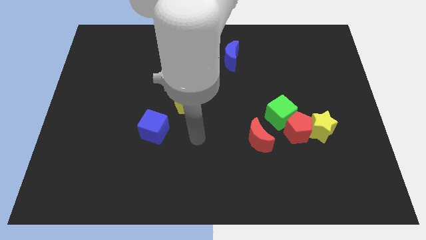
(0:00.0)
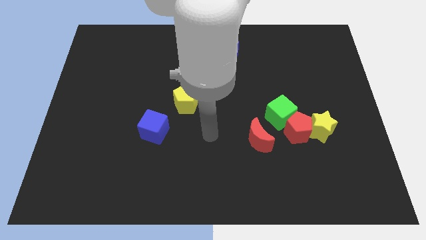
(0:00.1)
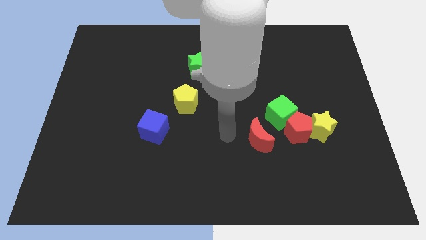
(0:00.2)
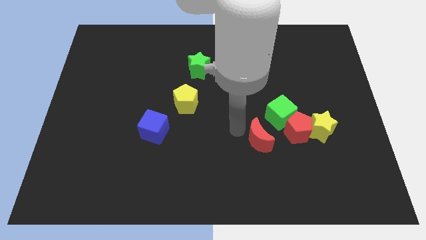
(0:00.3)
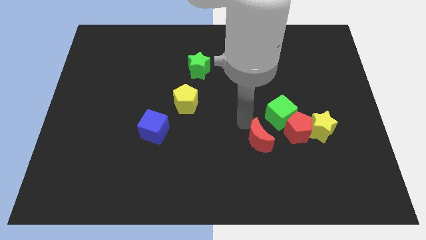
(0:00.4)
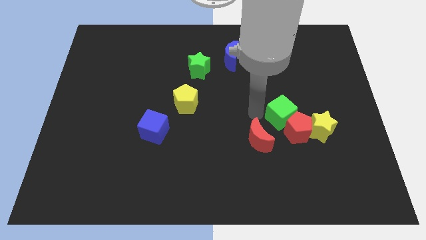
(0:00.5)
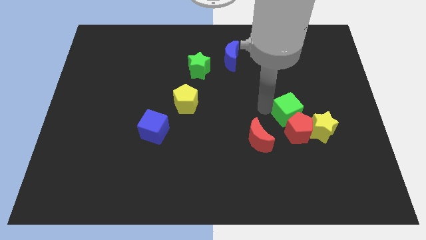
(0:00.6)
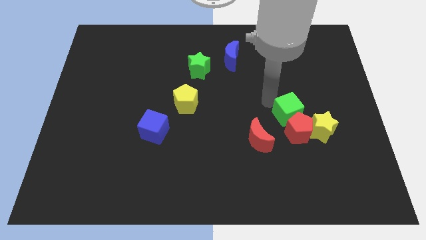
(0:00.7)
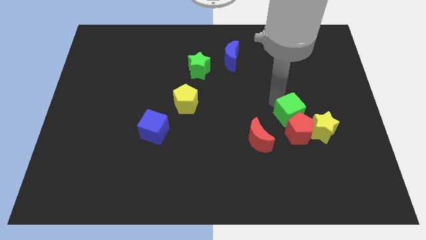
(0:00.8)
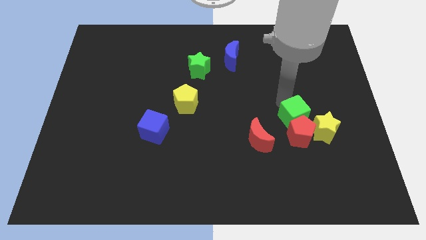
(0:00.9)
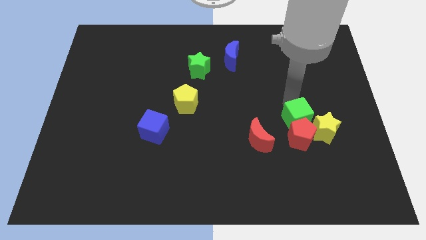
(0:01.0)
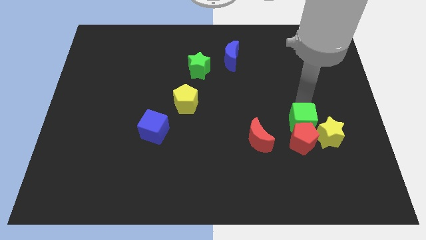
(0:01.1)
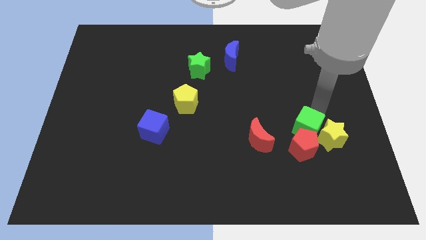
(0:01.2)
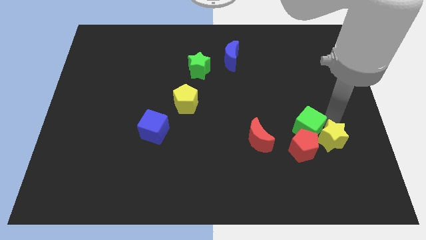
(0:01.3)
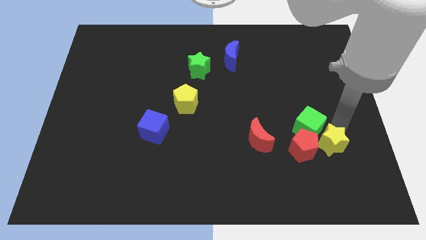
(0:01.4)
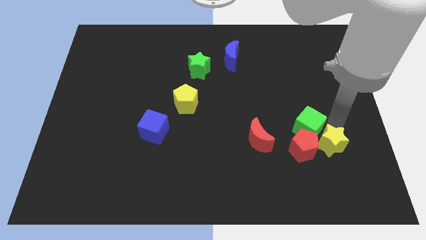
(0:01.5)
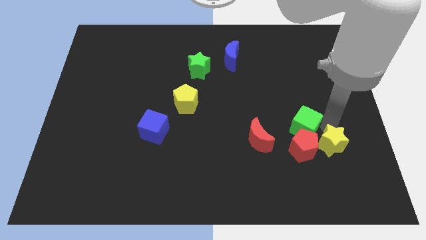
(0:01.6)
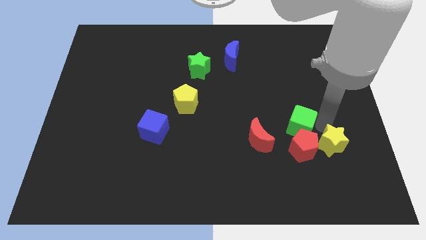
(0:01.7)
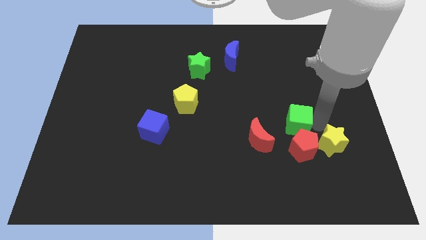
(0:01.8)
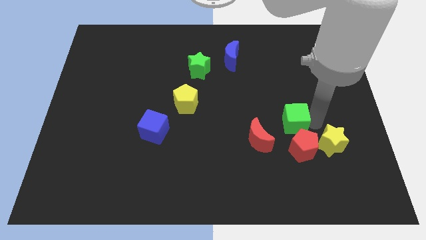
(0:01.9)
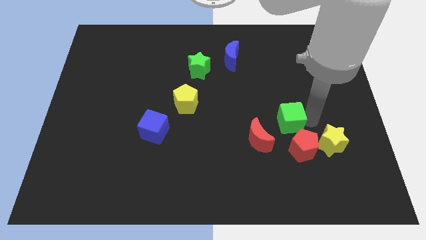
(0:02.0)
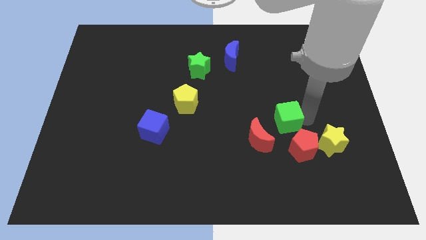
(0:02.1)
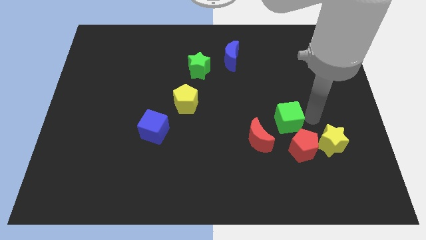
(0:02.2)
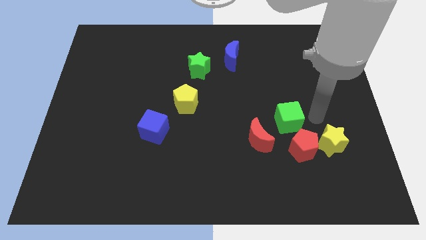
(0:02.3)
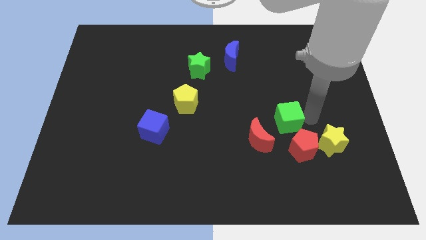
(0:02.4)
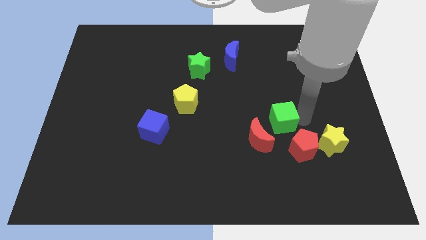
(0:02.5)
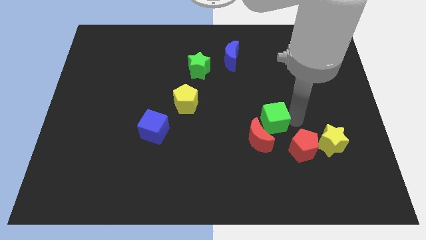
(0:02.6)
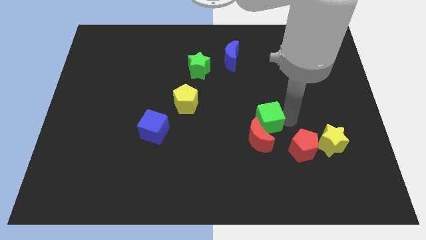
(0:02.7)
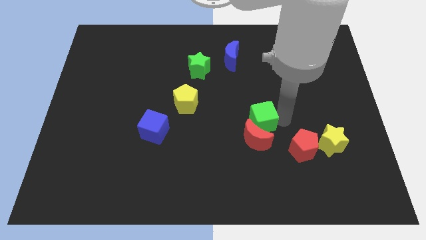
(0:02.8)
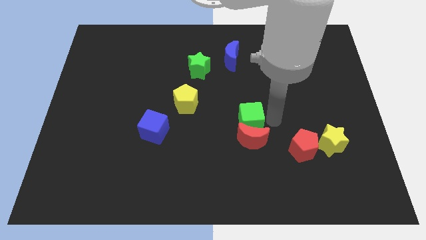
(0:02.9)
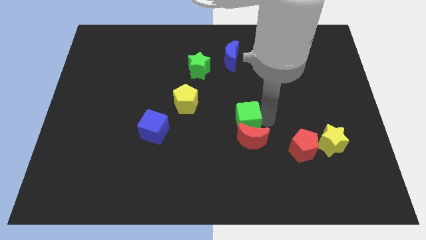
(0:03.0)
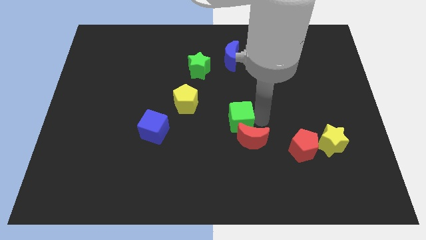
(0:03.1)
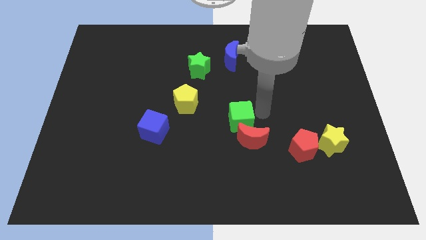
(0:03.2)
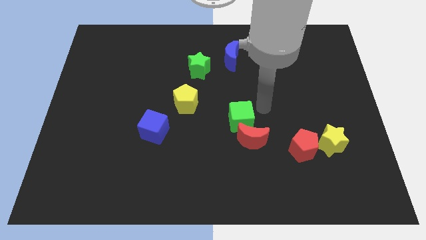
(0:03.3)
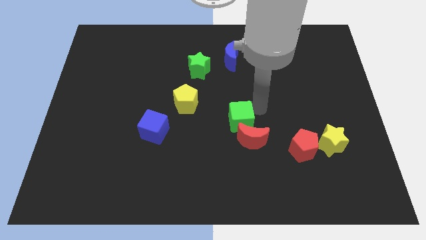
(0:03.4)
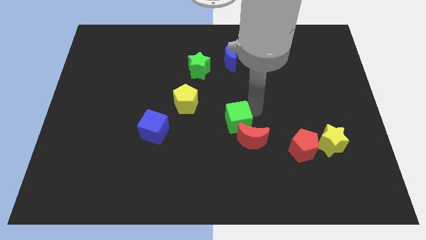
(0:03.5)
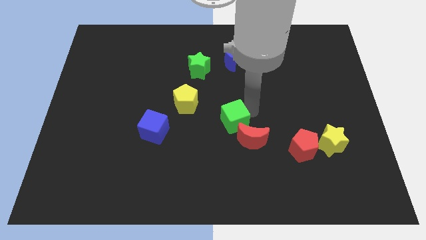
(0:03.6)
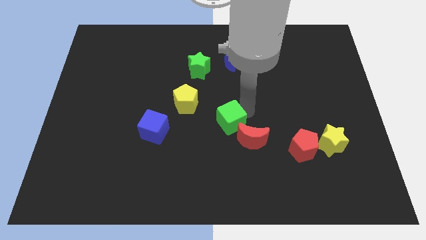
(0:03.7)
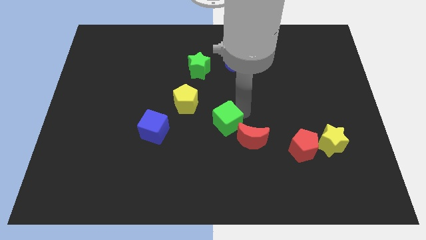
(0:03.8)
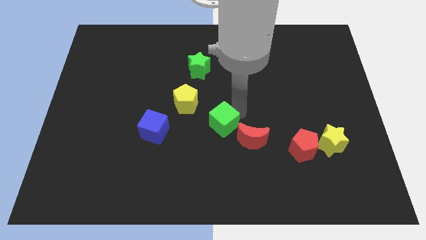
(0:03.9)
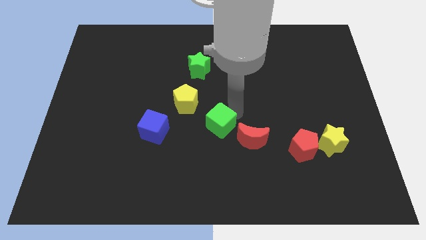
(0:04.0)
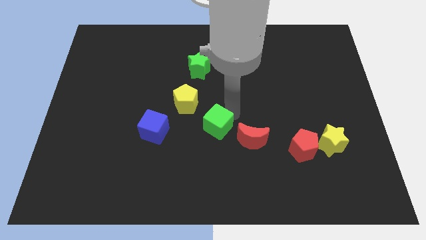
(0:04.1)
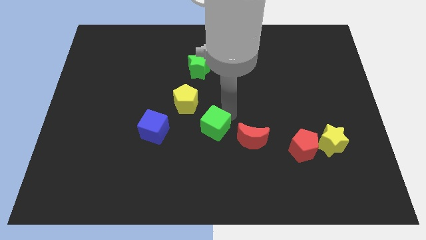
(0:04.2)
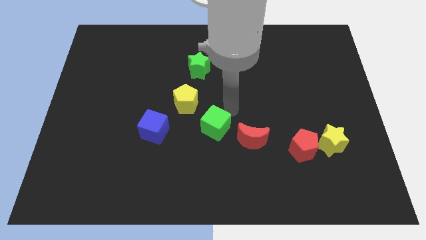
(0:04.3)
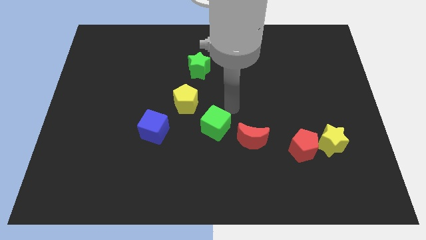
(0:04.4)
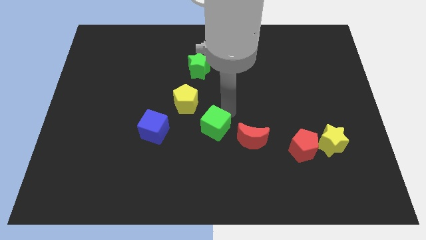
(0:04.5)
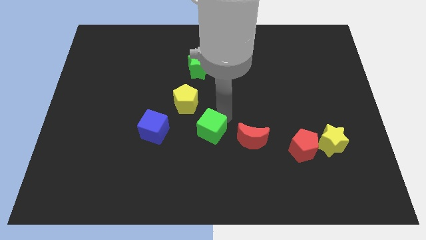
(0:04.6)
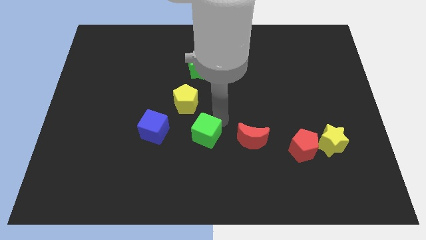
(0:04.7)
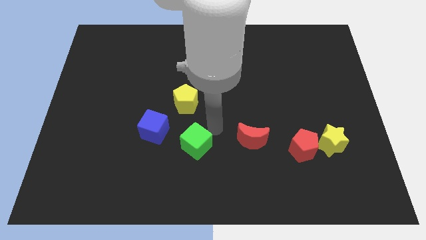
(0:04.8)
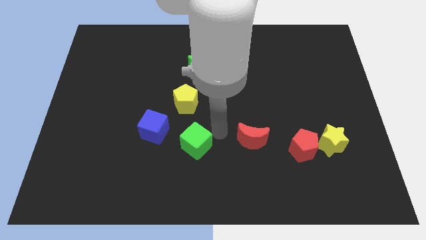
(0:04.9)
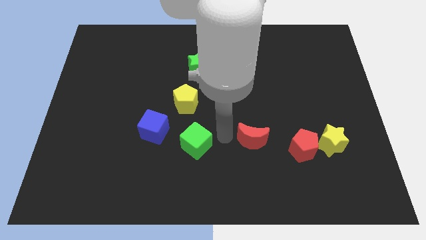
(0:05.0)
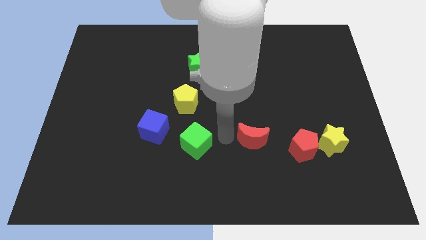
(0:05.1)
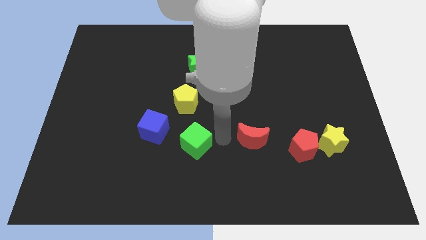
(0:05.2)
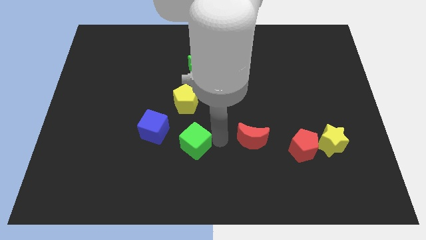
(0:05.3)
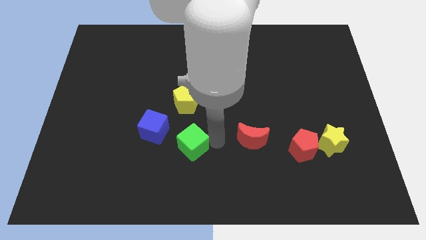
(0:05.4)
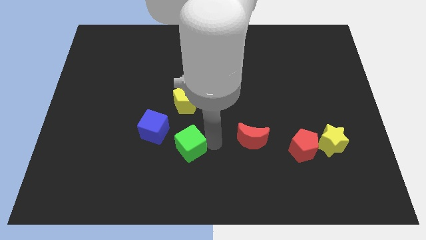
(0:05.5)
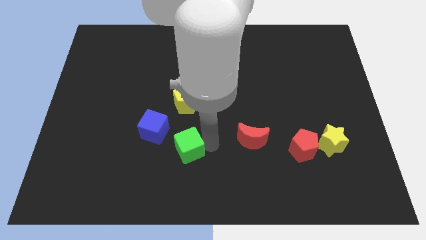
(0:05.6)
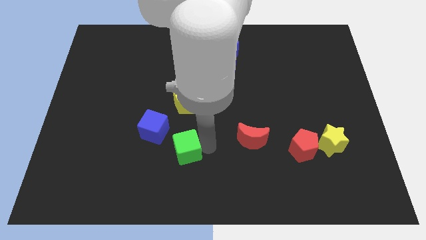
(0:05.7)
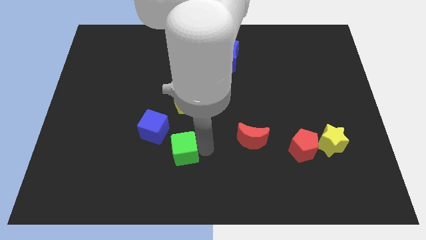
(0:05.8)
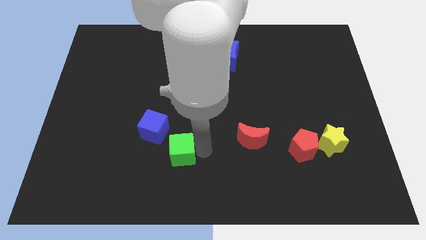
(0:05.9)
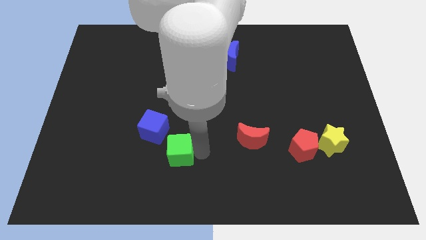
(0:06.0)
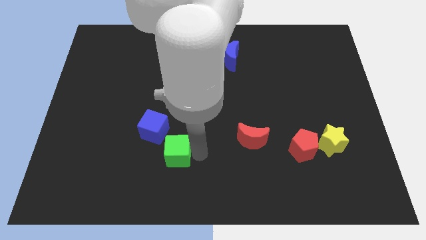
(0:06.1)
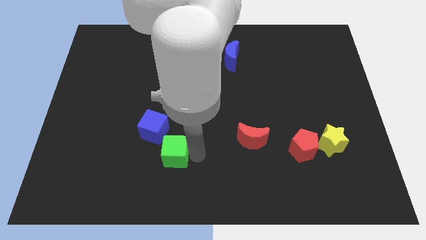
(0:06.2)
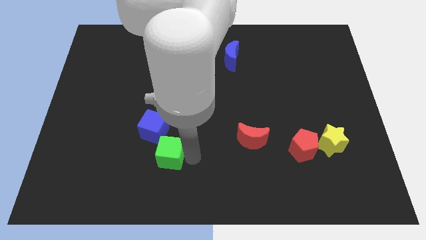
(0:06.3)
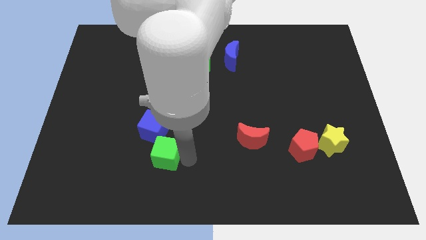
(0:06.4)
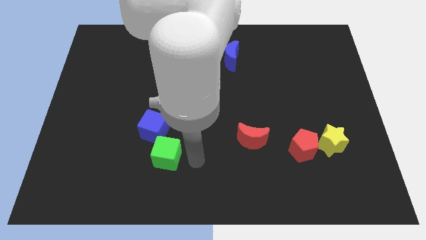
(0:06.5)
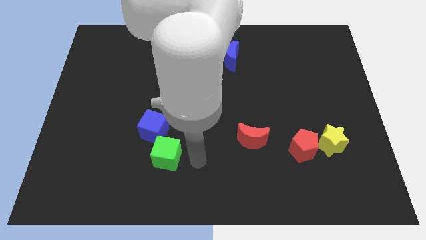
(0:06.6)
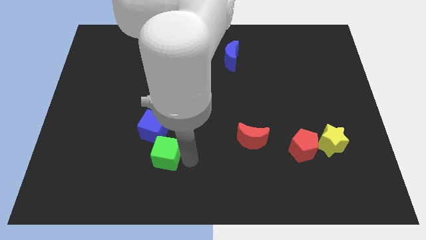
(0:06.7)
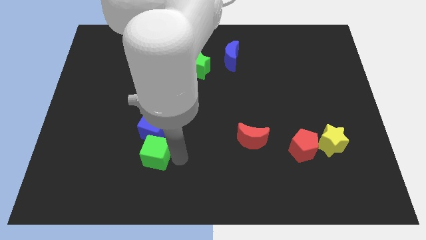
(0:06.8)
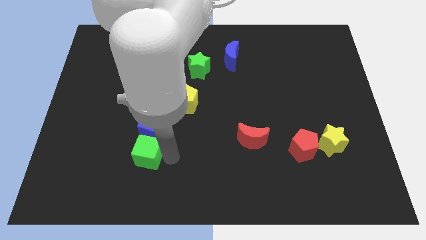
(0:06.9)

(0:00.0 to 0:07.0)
slide the green cube diagonally down and to the left of the blue cube

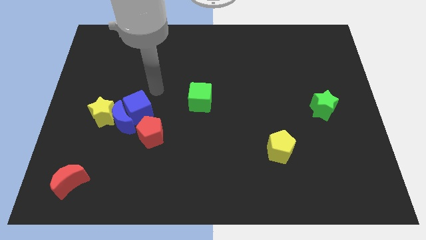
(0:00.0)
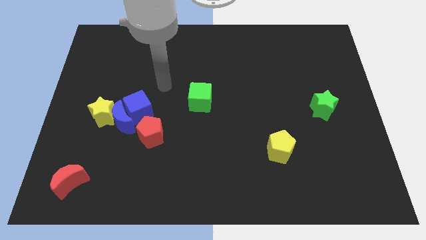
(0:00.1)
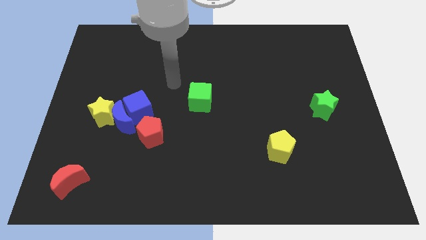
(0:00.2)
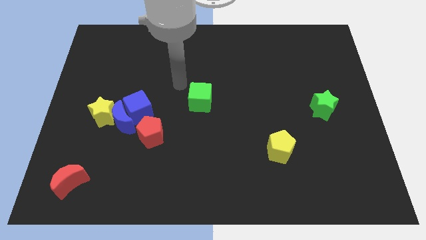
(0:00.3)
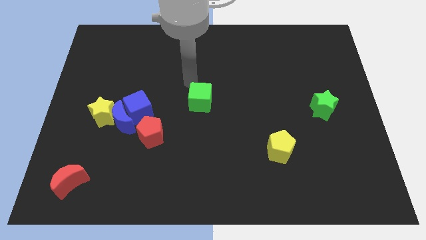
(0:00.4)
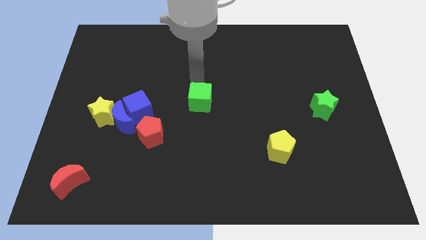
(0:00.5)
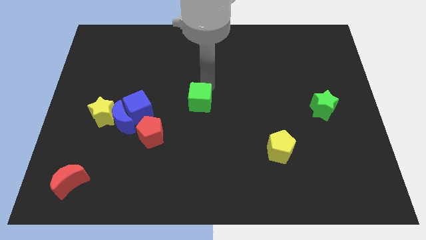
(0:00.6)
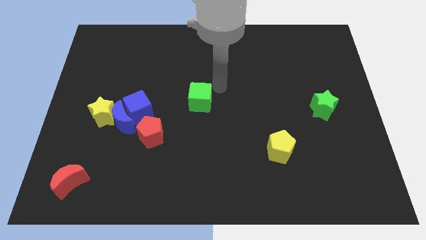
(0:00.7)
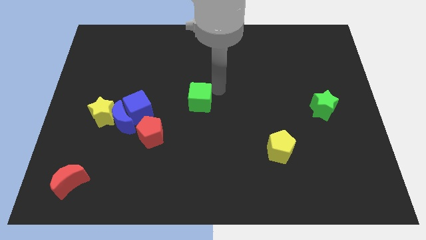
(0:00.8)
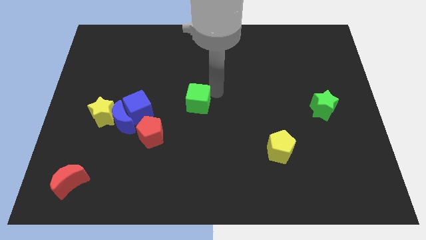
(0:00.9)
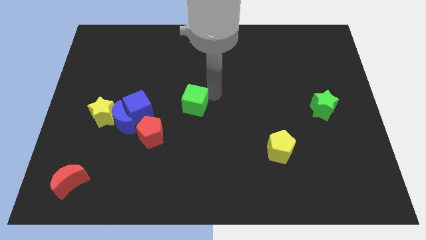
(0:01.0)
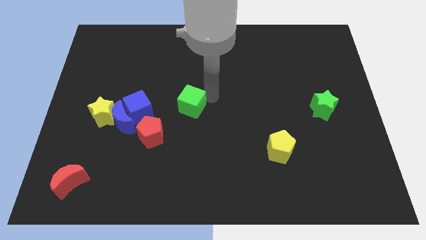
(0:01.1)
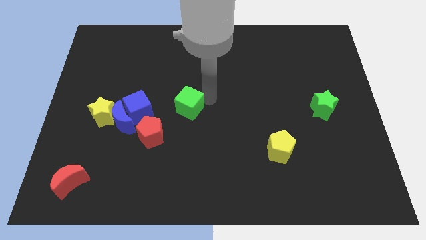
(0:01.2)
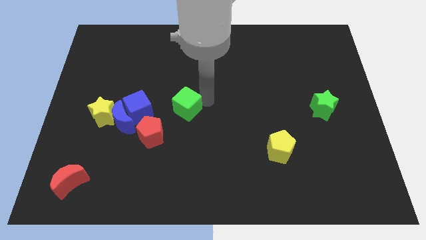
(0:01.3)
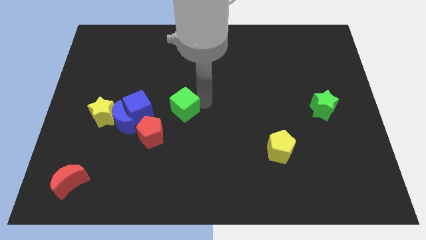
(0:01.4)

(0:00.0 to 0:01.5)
push the green cube right of the blue moon
